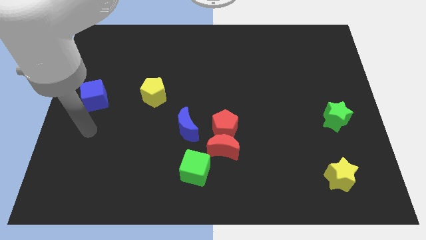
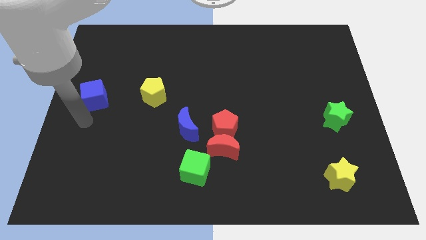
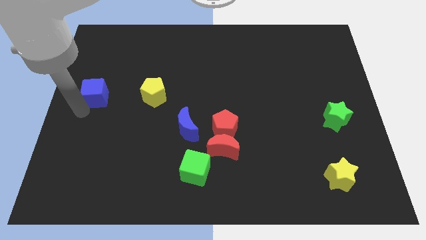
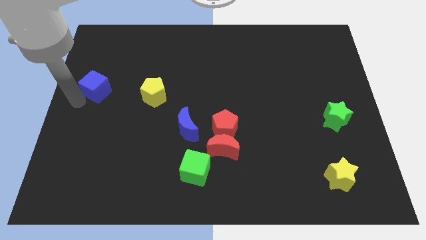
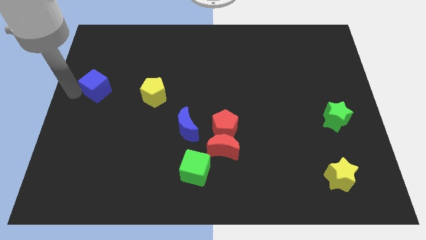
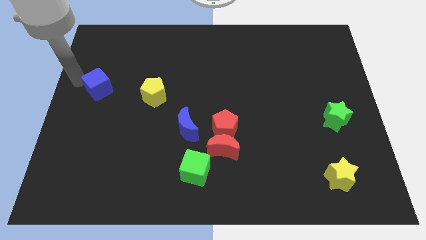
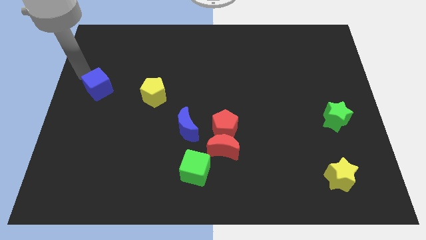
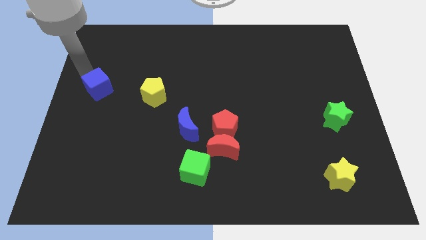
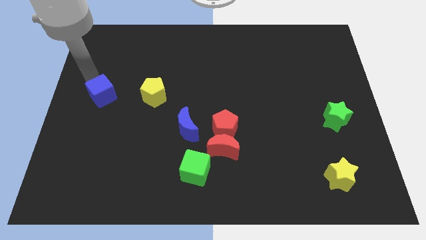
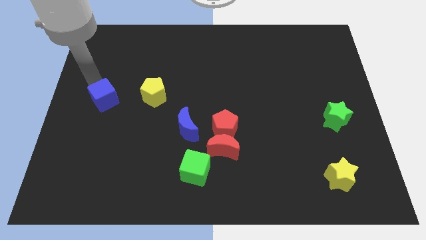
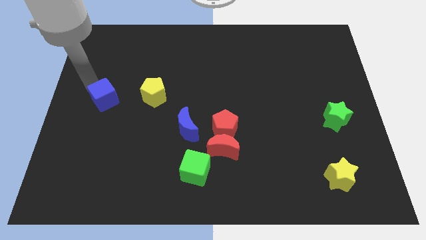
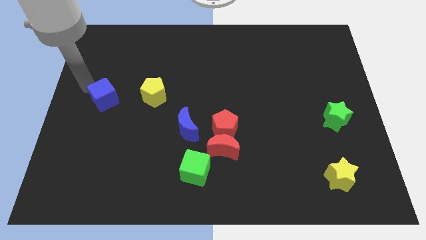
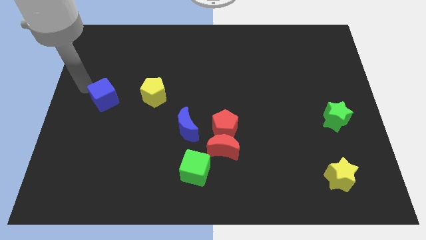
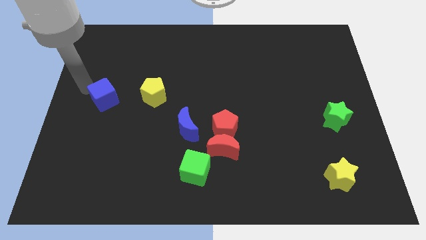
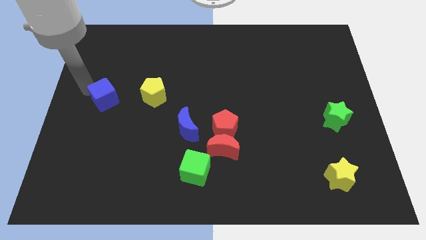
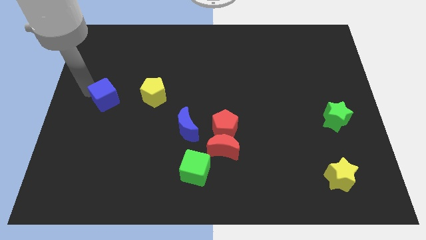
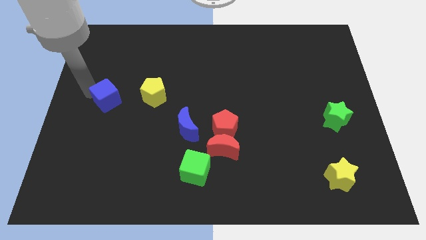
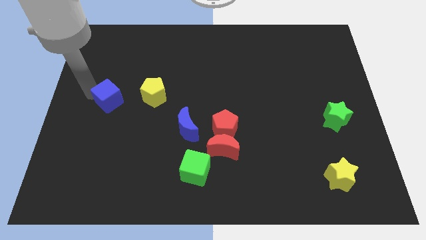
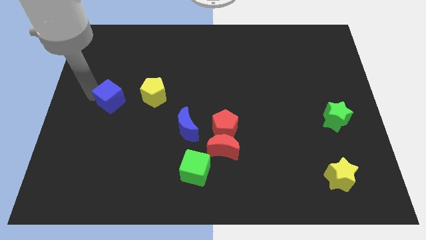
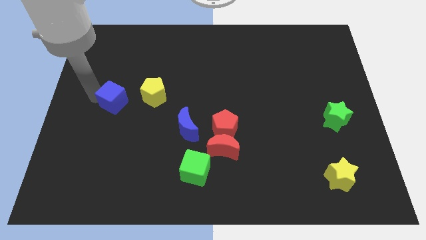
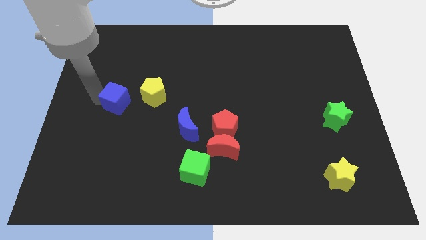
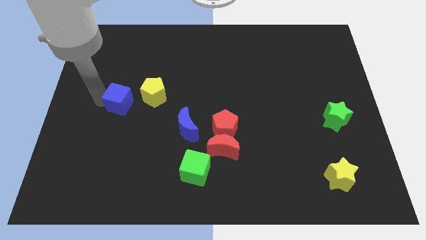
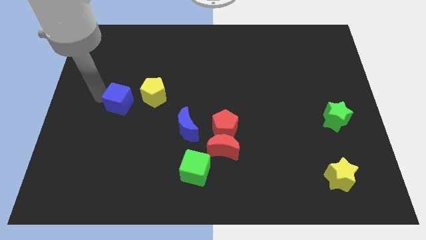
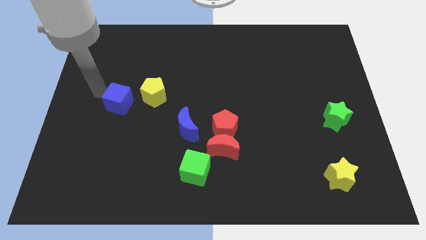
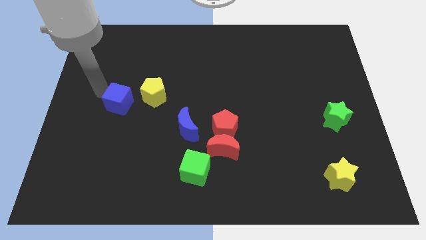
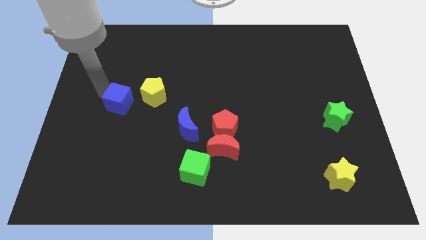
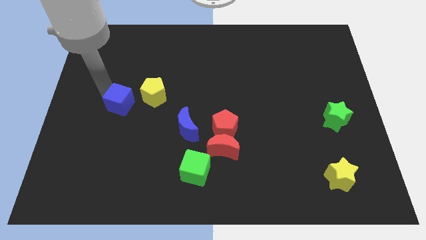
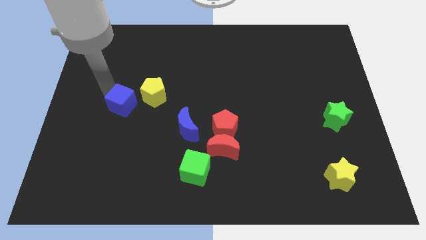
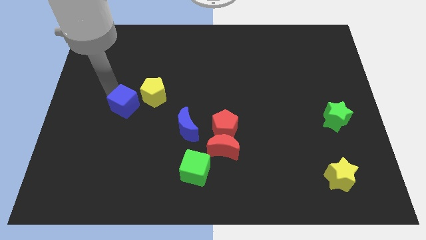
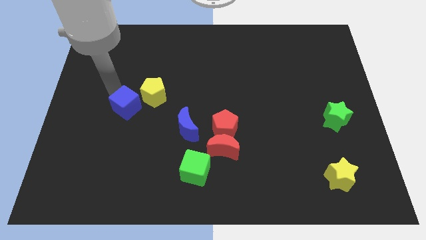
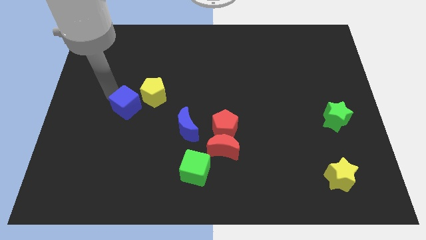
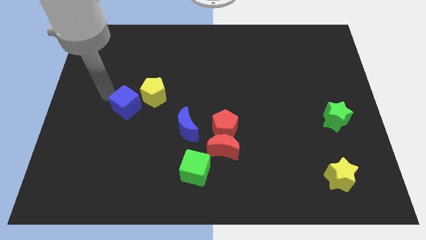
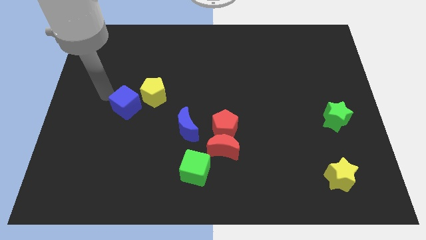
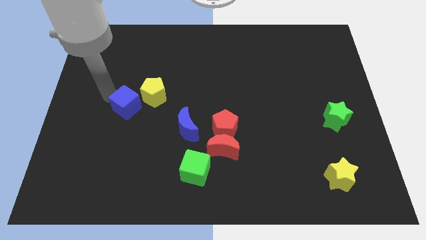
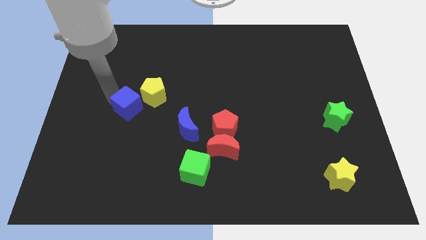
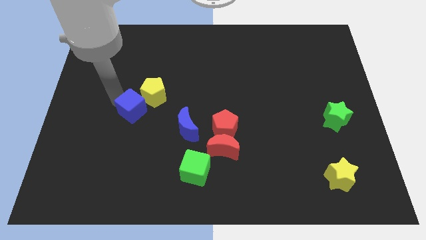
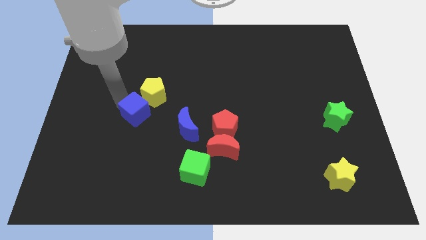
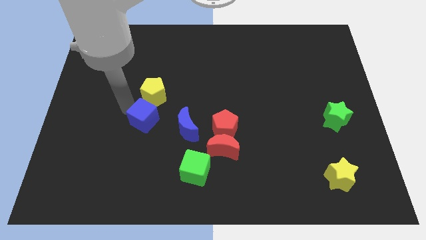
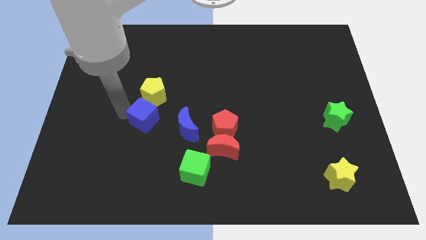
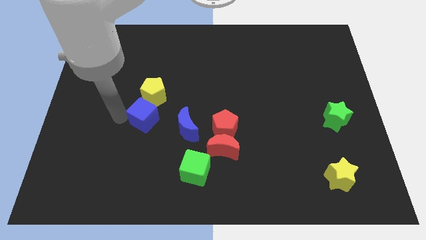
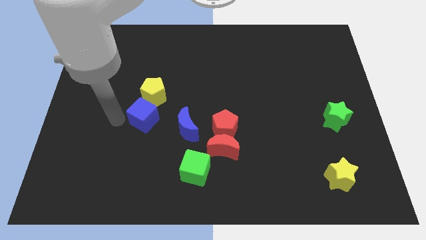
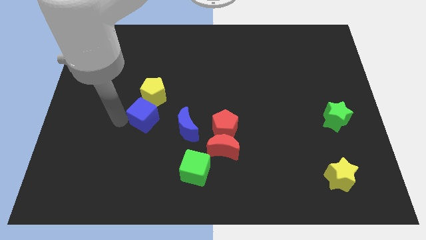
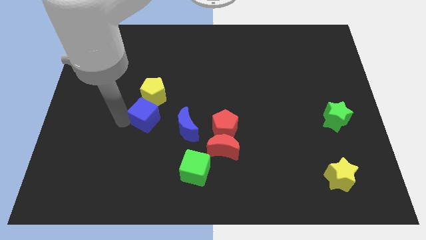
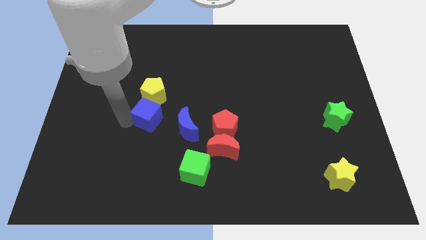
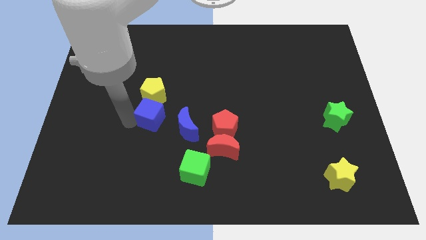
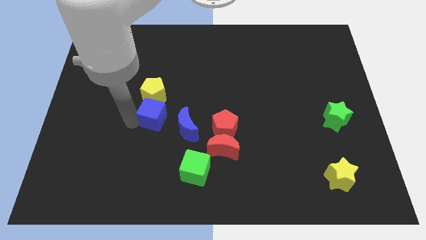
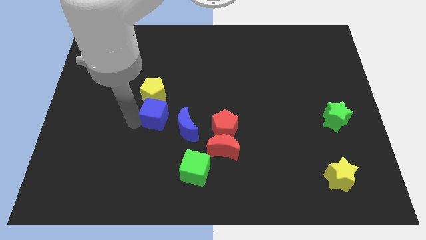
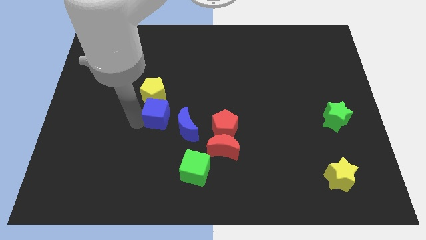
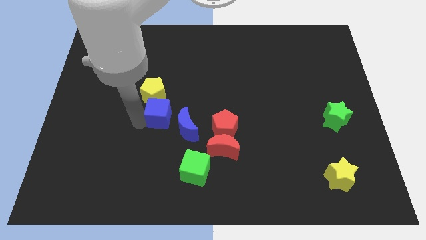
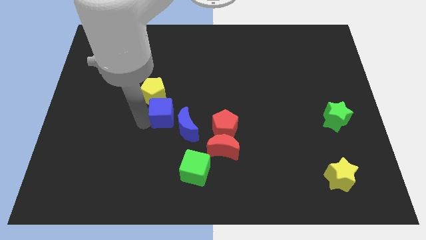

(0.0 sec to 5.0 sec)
move the blue cube to the center of the board

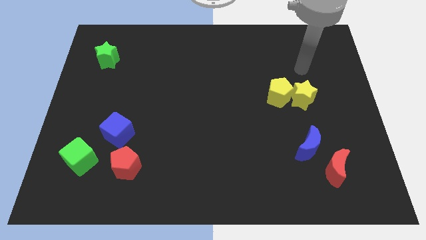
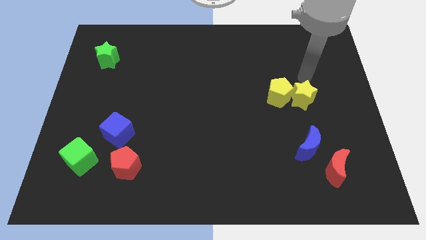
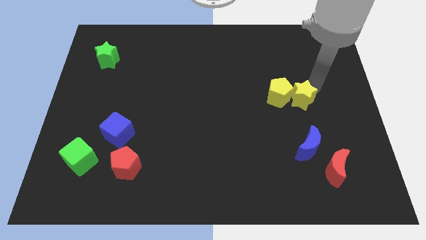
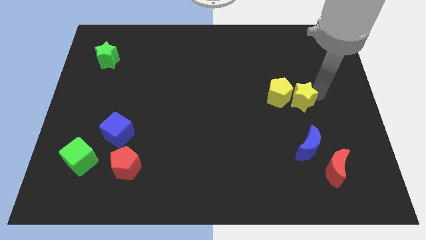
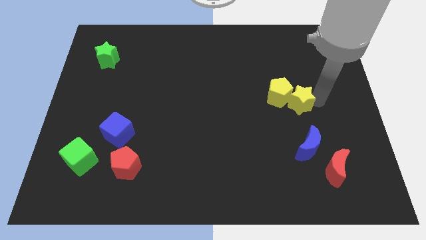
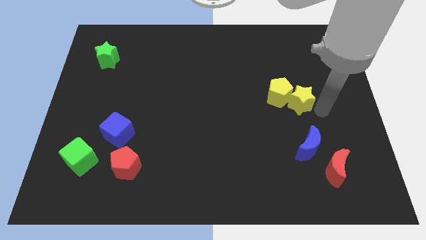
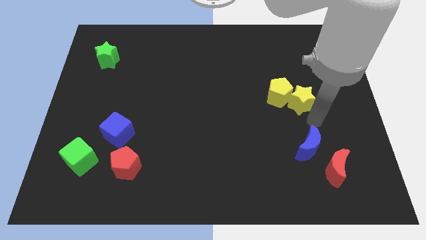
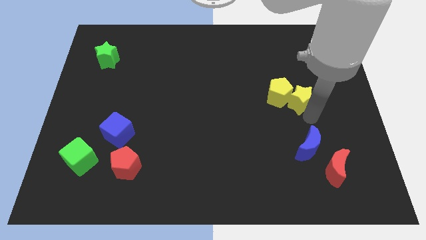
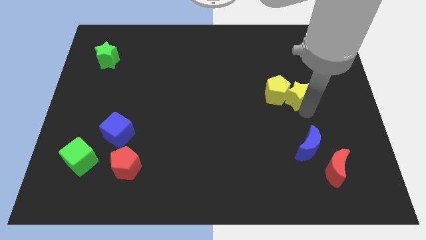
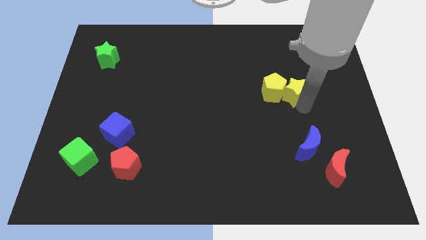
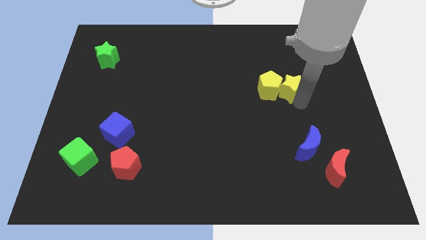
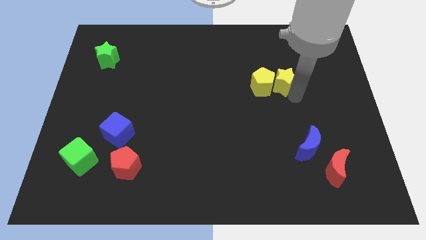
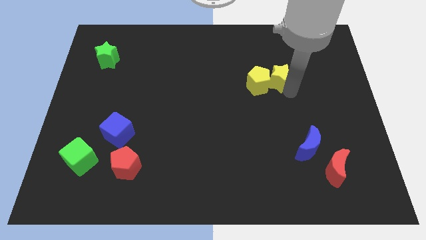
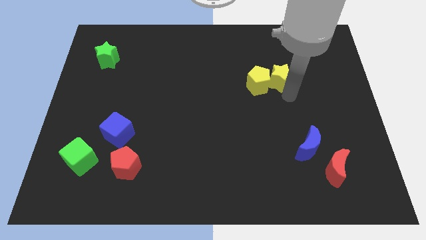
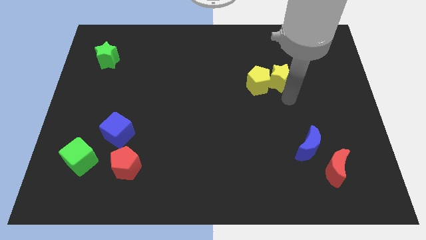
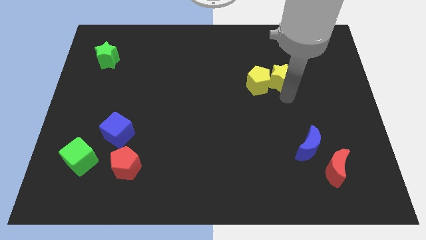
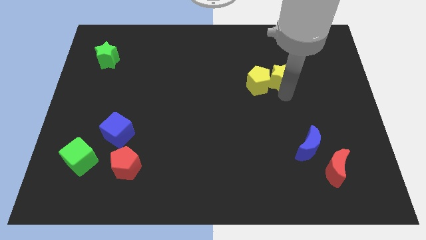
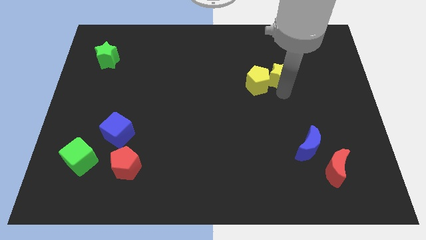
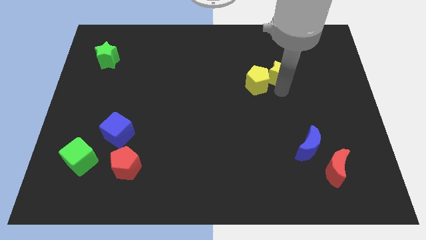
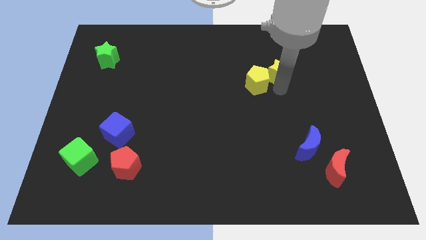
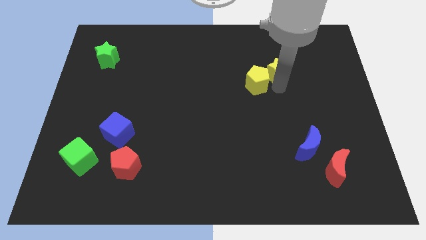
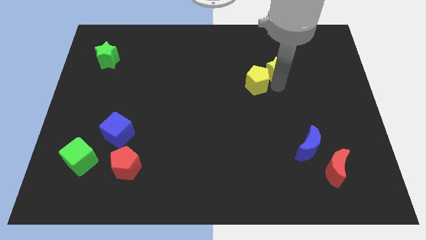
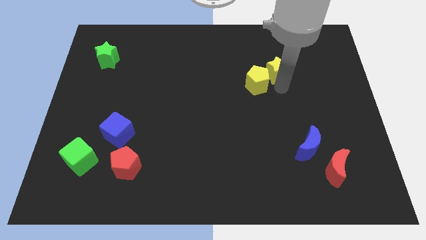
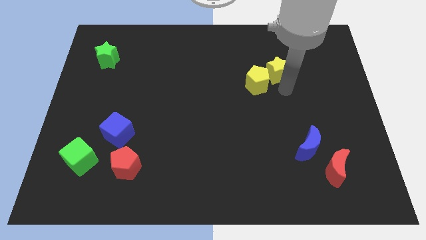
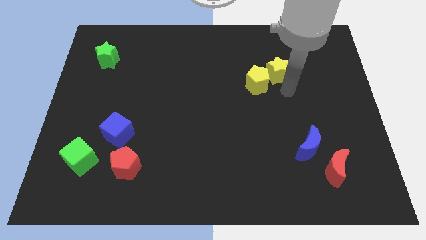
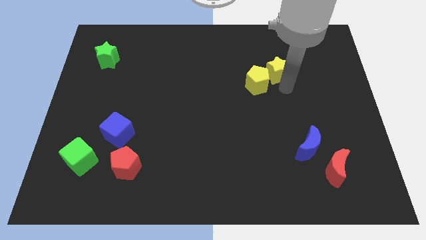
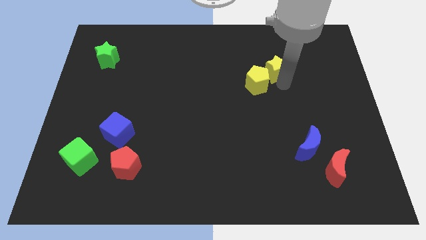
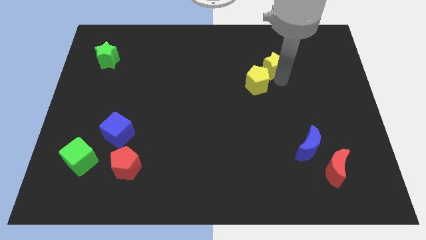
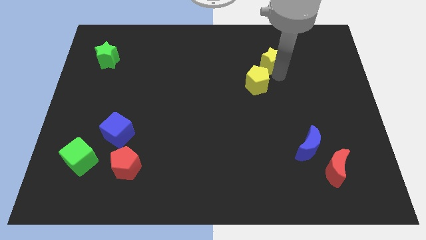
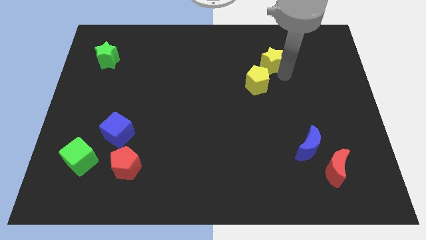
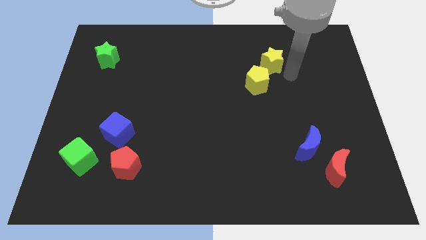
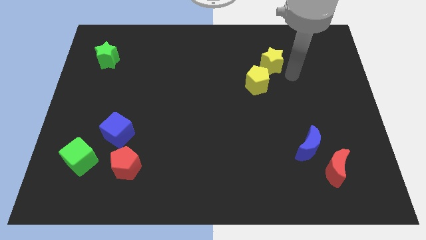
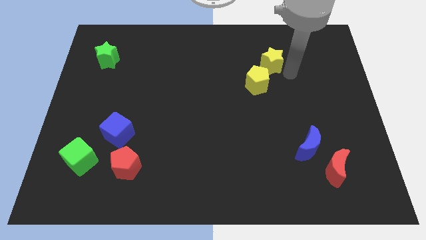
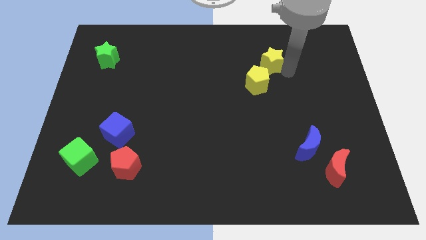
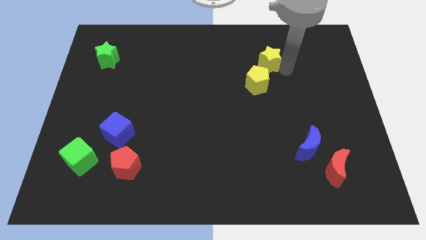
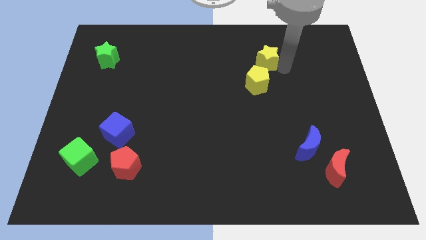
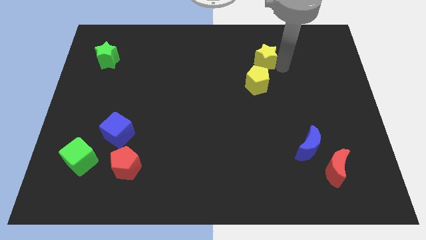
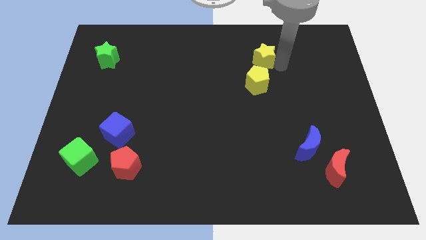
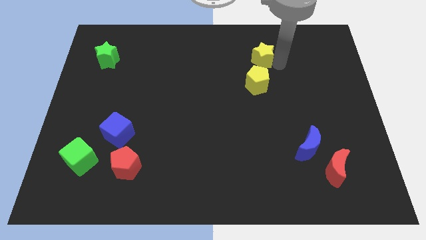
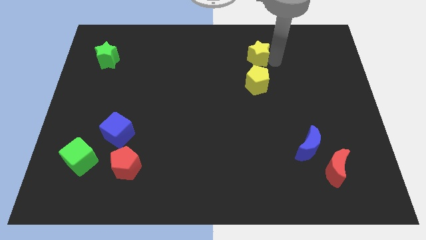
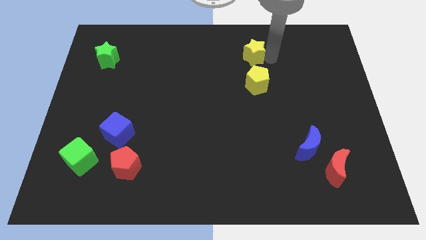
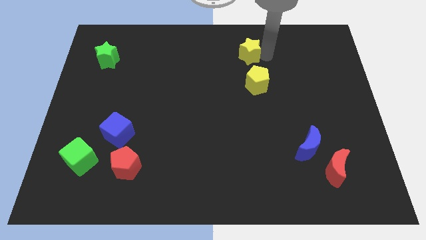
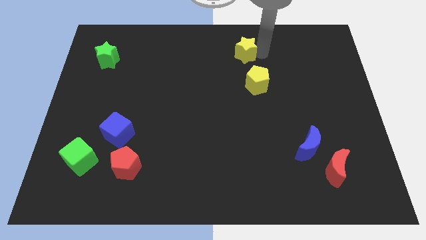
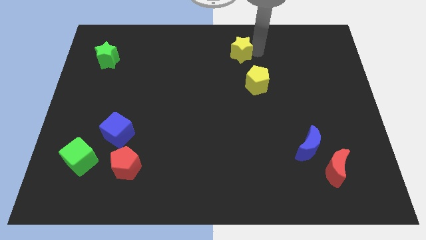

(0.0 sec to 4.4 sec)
push the yellow star to the top
